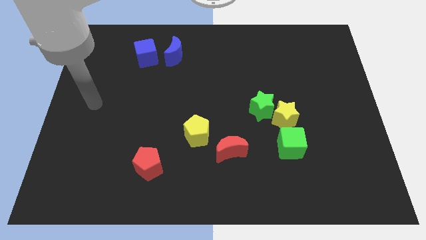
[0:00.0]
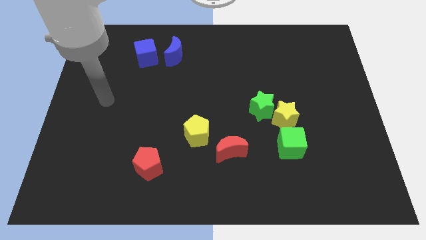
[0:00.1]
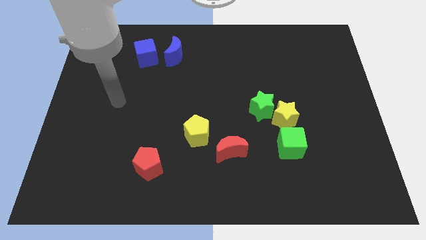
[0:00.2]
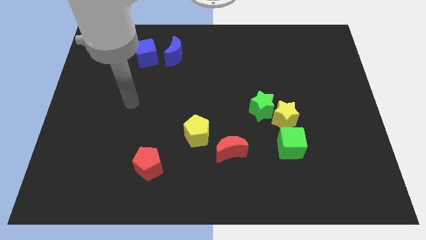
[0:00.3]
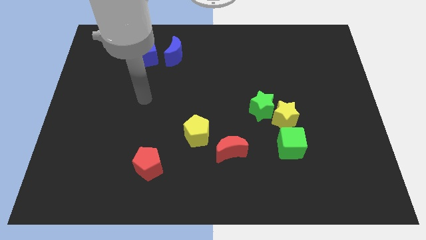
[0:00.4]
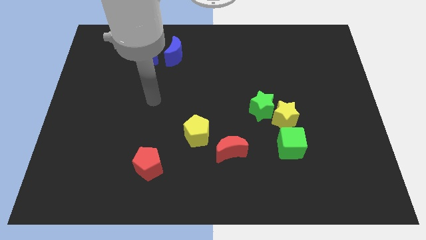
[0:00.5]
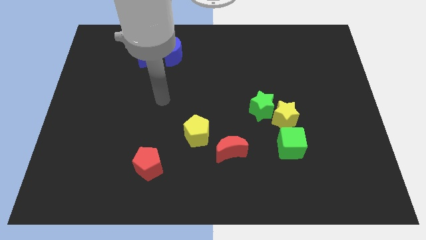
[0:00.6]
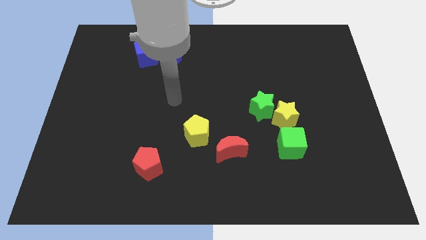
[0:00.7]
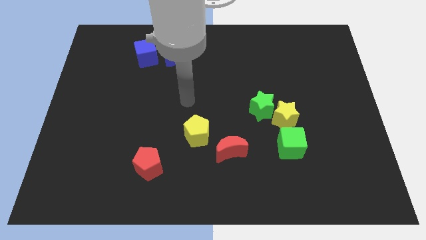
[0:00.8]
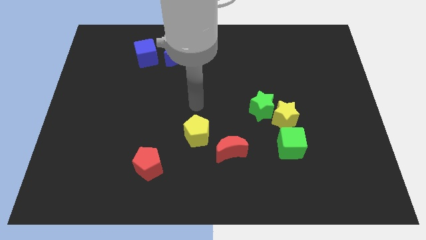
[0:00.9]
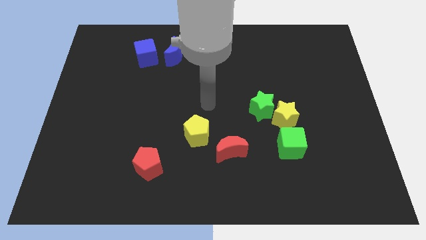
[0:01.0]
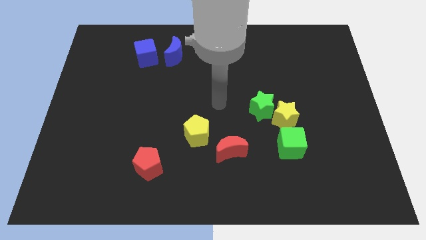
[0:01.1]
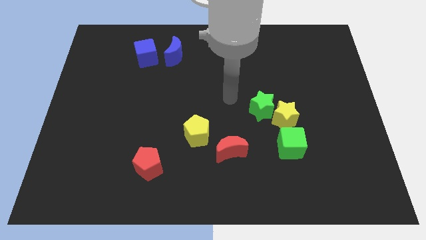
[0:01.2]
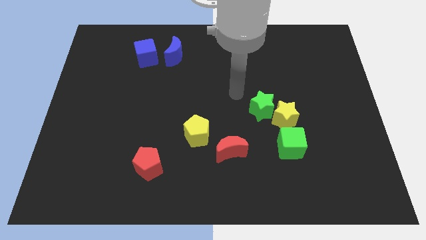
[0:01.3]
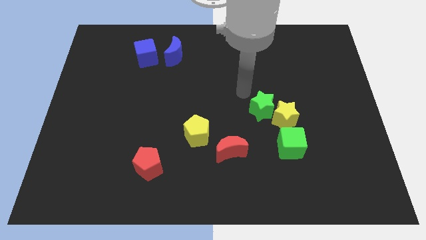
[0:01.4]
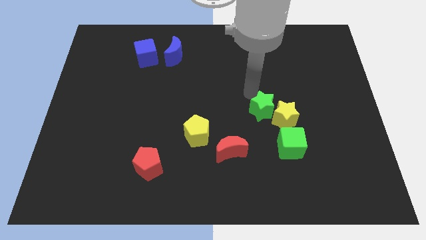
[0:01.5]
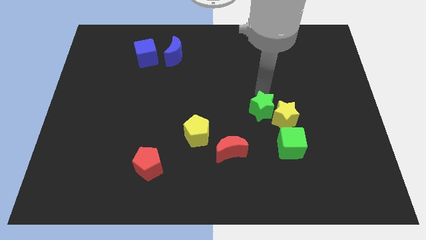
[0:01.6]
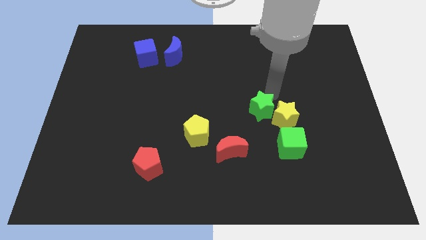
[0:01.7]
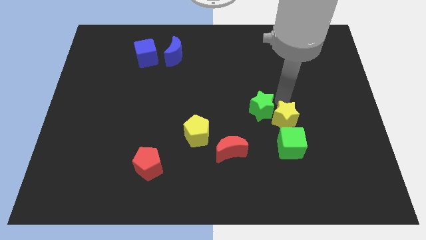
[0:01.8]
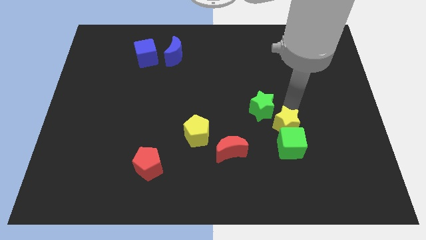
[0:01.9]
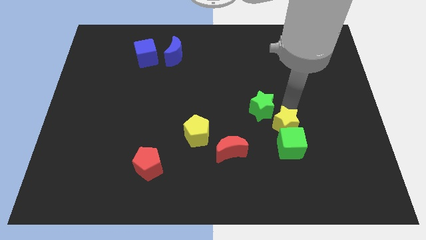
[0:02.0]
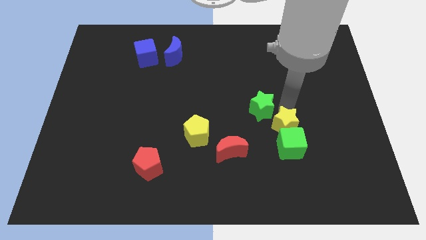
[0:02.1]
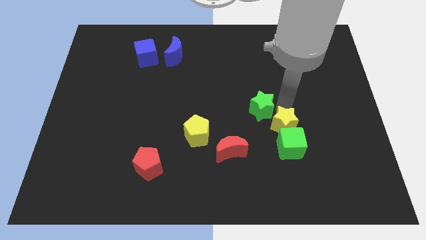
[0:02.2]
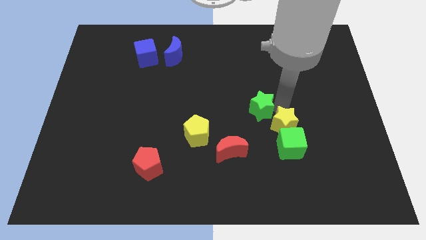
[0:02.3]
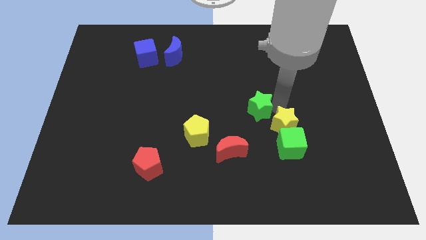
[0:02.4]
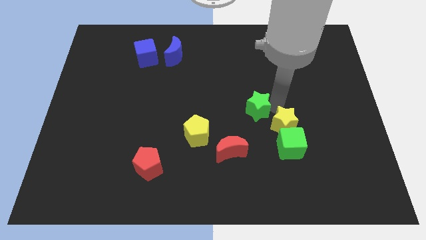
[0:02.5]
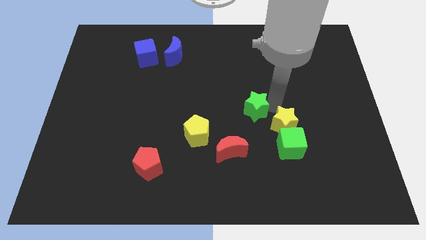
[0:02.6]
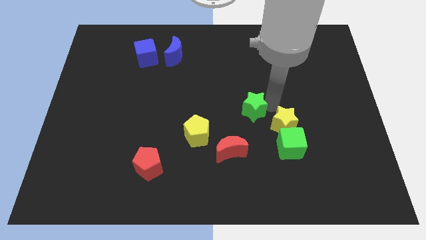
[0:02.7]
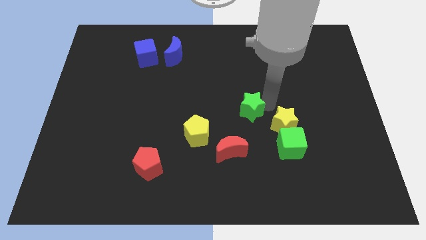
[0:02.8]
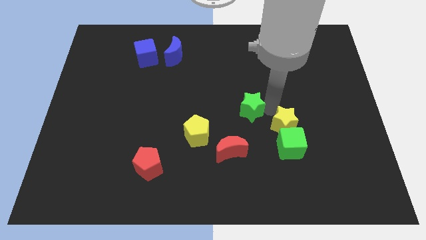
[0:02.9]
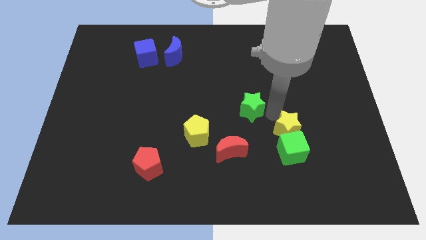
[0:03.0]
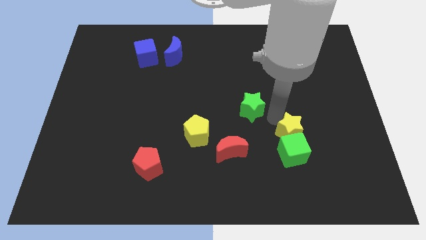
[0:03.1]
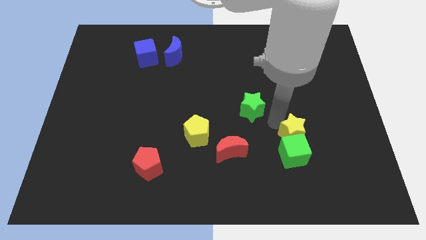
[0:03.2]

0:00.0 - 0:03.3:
separate the green star from the yellow star

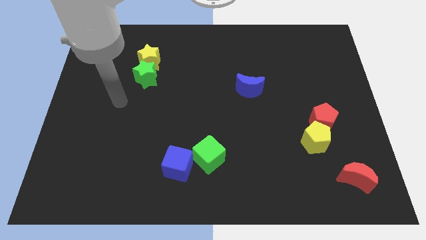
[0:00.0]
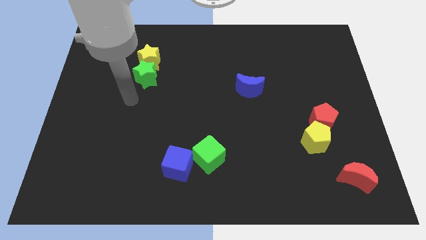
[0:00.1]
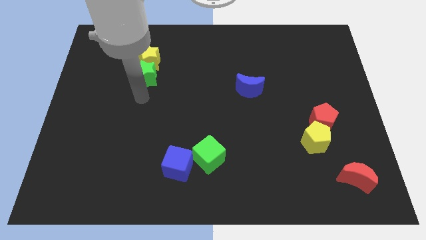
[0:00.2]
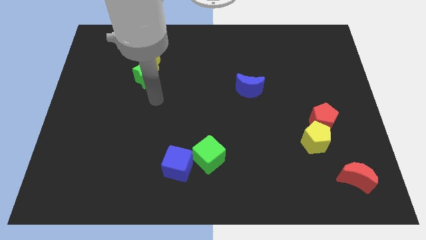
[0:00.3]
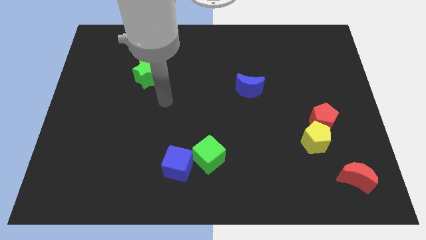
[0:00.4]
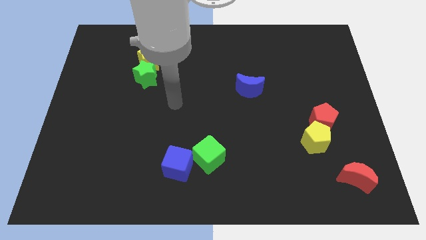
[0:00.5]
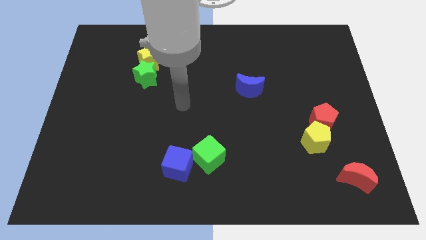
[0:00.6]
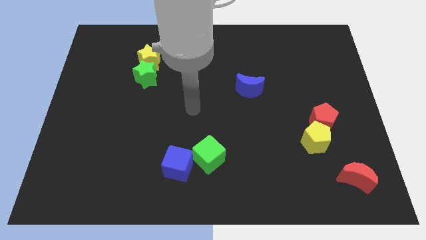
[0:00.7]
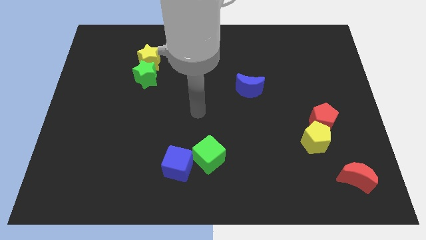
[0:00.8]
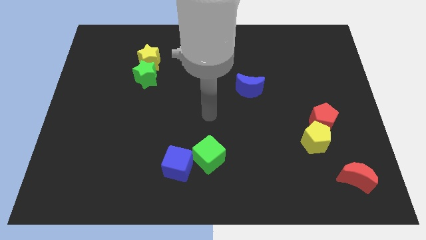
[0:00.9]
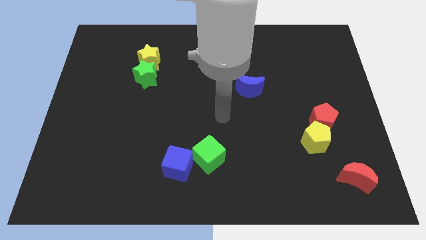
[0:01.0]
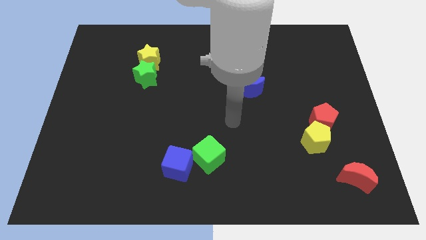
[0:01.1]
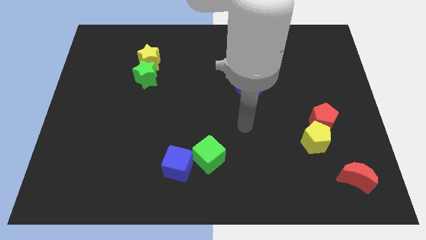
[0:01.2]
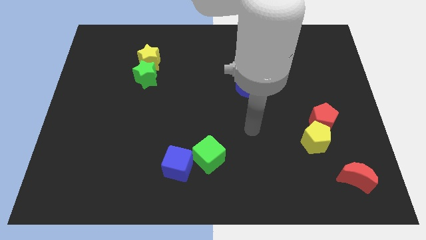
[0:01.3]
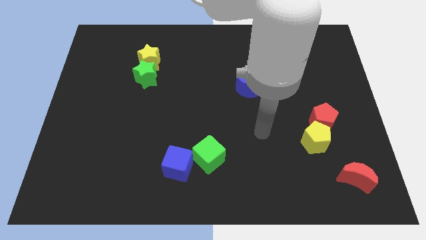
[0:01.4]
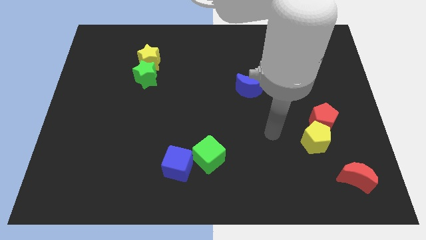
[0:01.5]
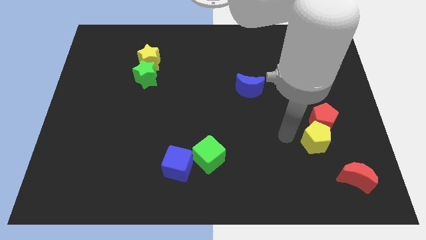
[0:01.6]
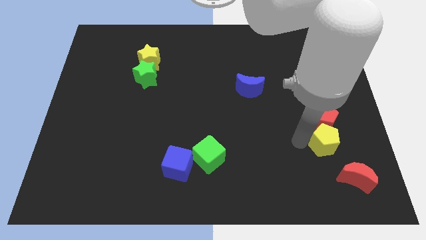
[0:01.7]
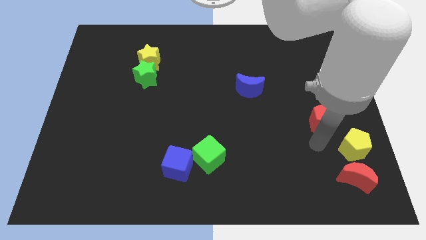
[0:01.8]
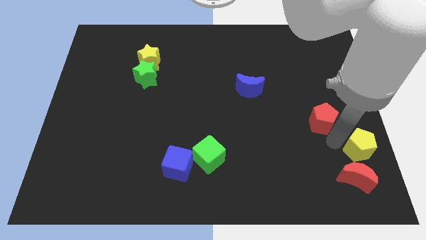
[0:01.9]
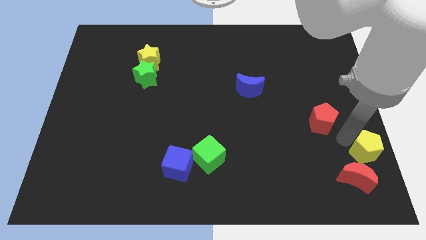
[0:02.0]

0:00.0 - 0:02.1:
move the red pentagon away from the yellow pentagon

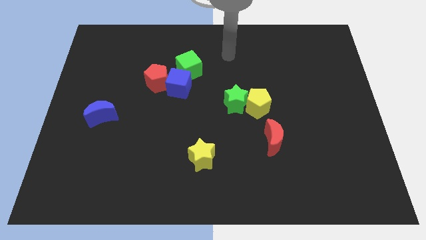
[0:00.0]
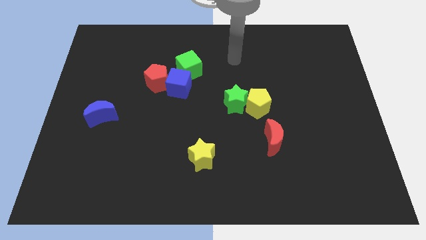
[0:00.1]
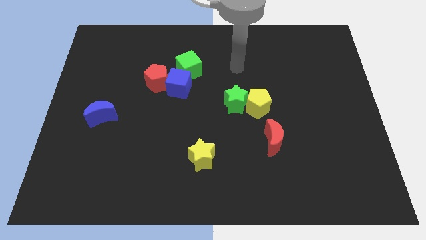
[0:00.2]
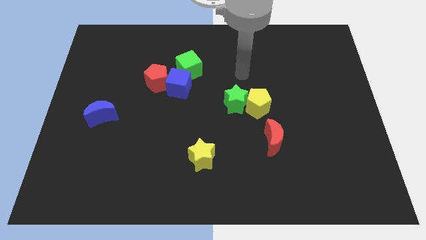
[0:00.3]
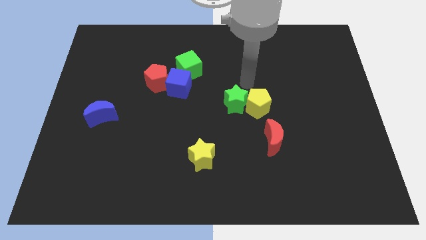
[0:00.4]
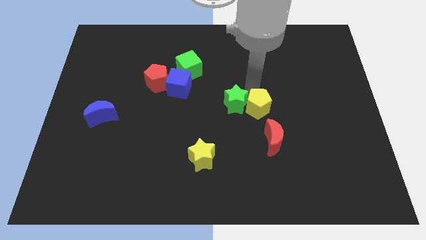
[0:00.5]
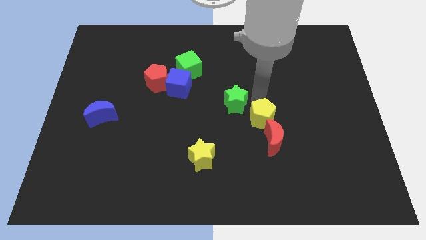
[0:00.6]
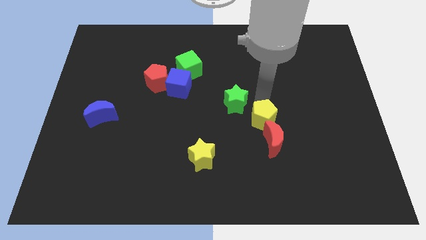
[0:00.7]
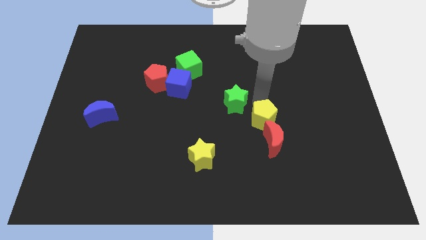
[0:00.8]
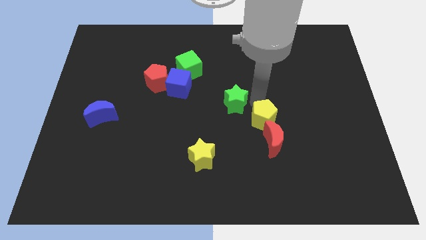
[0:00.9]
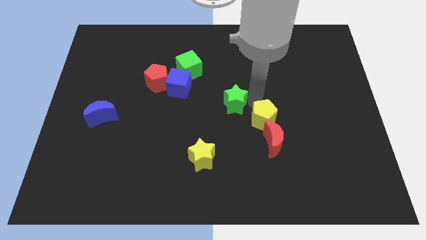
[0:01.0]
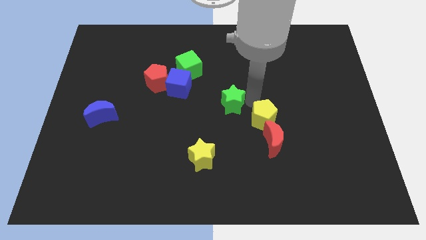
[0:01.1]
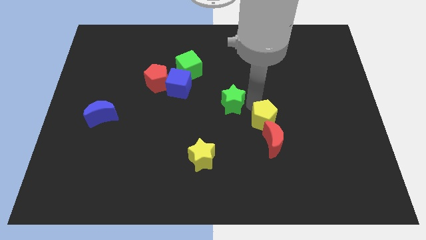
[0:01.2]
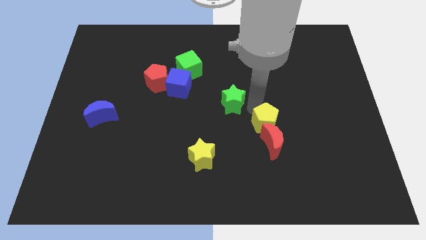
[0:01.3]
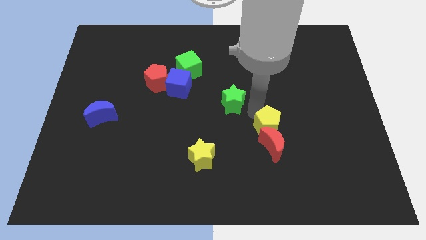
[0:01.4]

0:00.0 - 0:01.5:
pull the green star apart from the yellow pentagon

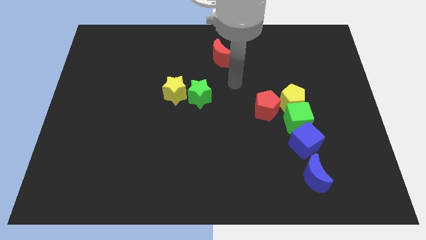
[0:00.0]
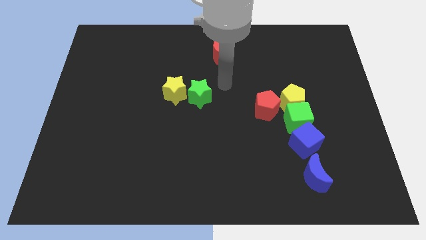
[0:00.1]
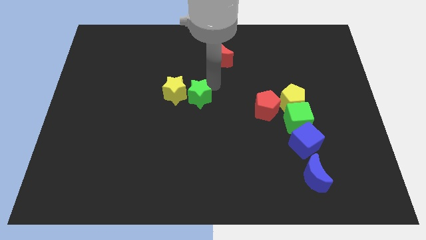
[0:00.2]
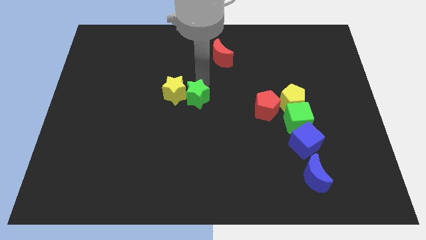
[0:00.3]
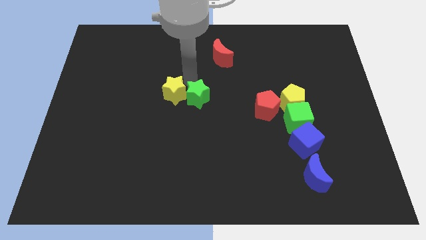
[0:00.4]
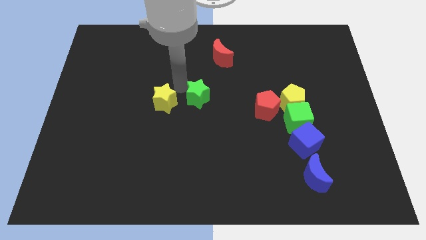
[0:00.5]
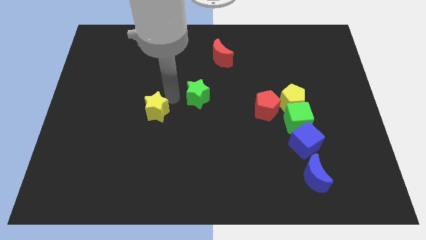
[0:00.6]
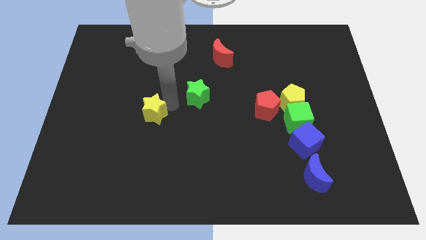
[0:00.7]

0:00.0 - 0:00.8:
pull the green star apart from the yellow star

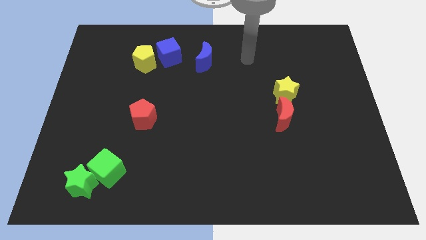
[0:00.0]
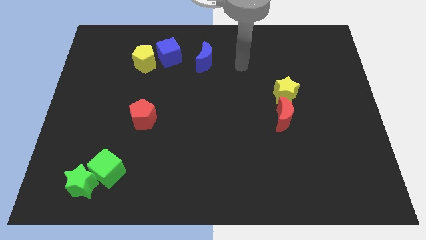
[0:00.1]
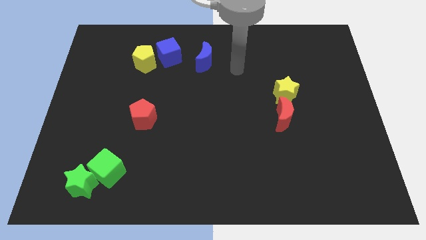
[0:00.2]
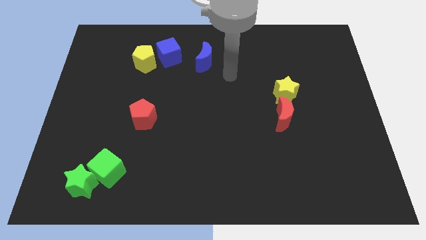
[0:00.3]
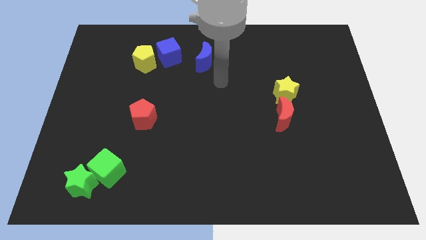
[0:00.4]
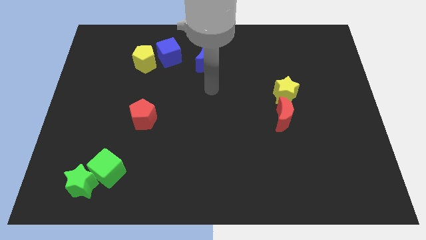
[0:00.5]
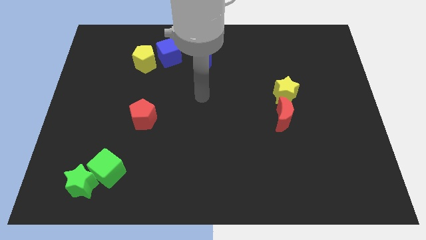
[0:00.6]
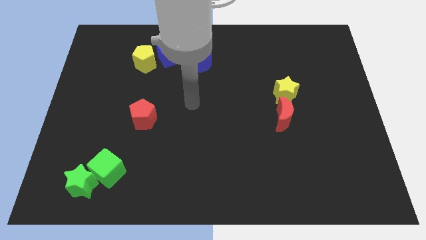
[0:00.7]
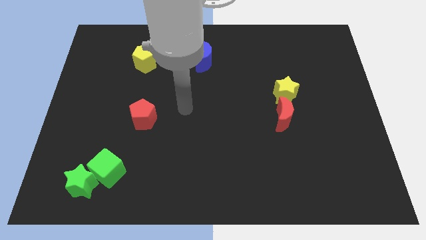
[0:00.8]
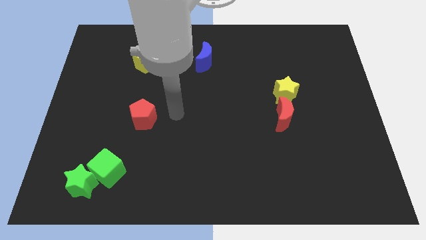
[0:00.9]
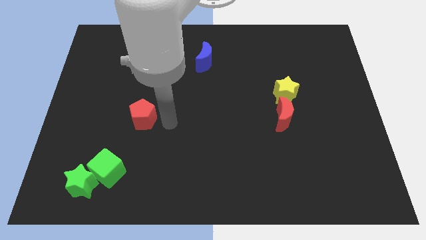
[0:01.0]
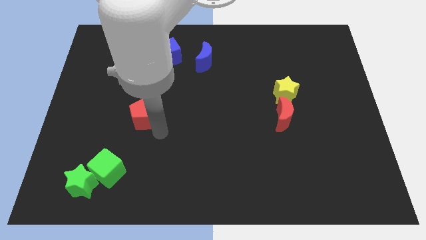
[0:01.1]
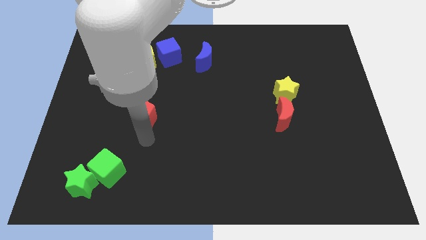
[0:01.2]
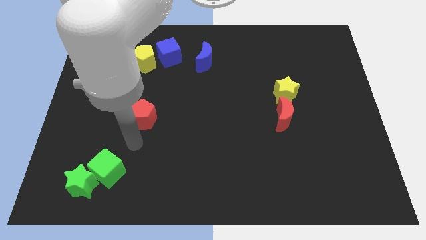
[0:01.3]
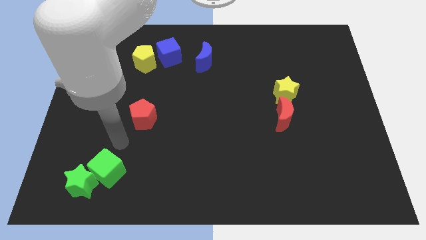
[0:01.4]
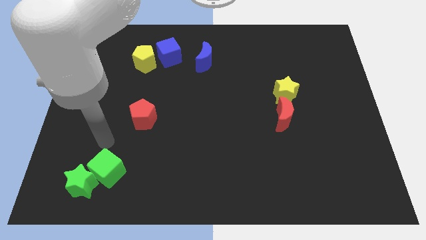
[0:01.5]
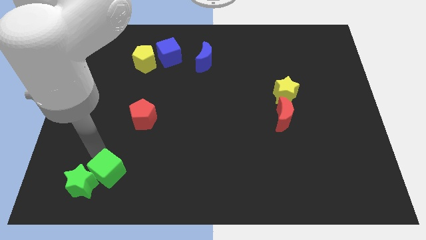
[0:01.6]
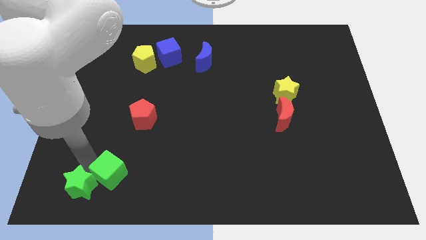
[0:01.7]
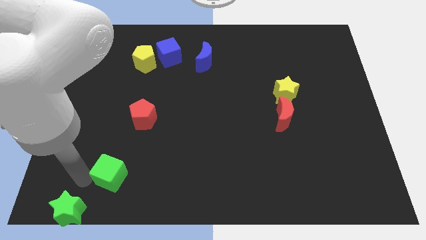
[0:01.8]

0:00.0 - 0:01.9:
move the green cube away from the green star
